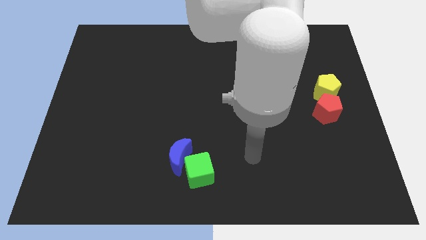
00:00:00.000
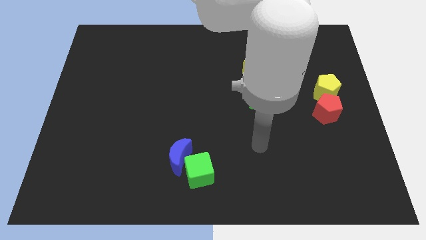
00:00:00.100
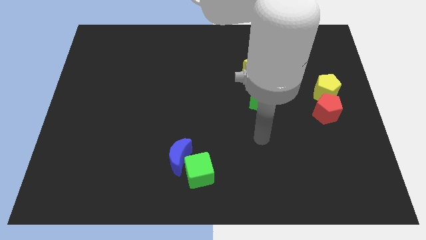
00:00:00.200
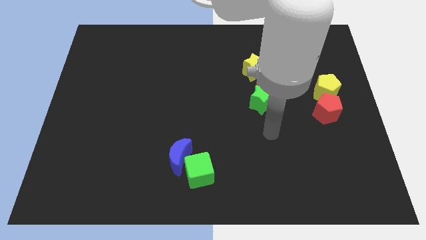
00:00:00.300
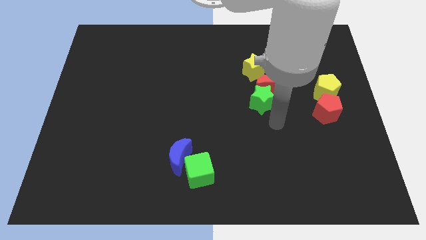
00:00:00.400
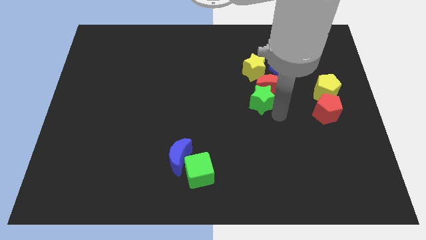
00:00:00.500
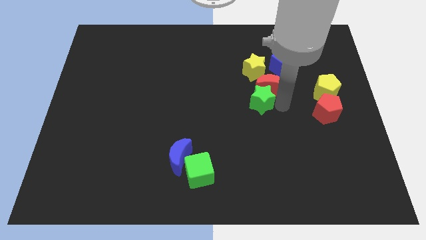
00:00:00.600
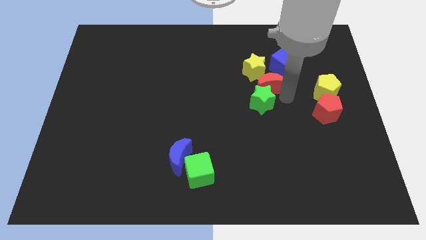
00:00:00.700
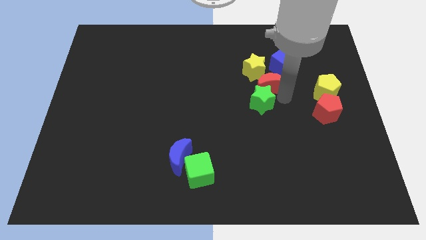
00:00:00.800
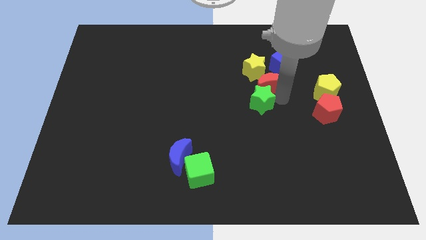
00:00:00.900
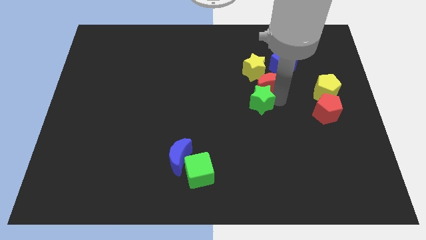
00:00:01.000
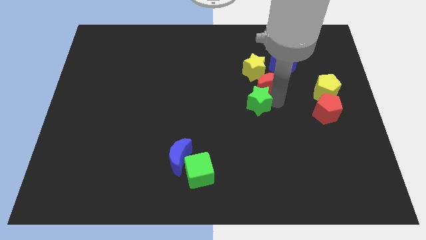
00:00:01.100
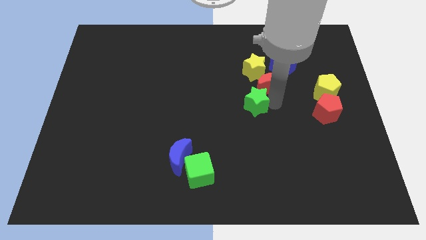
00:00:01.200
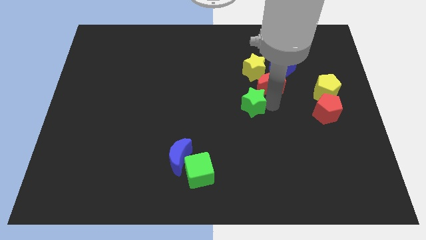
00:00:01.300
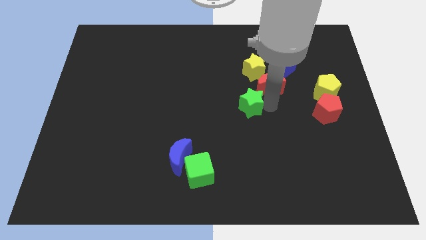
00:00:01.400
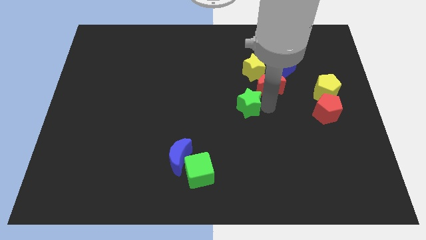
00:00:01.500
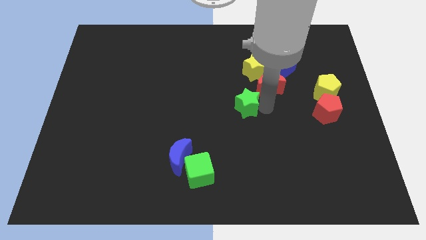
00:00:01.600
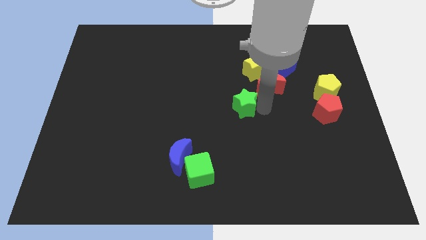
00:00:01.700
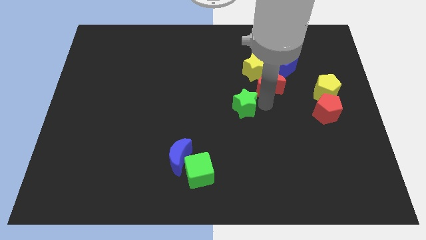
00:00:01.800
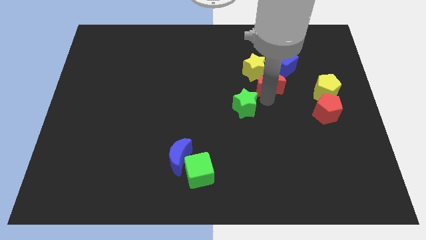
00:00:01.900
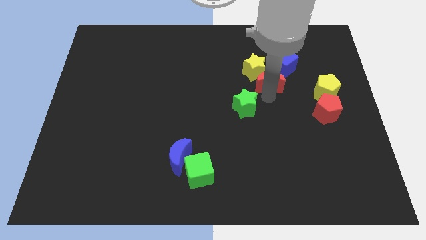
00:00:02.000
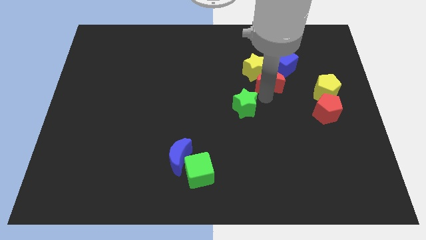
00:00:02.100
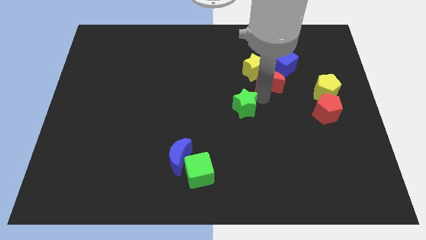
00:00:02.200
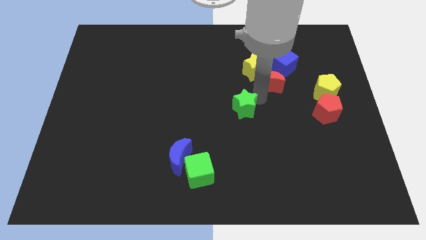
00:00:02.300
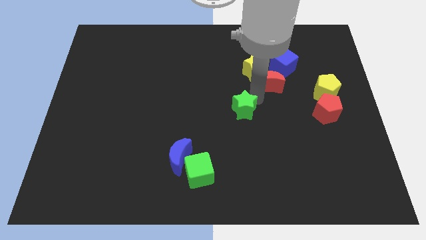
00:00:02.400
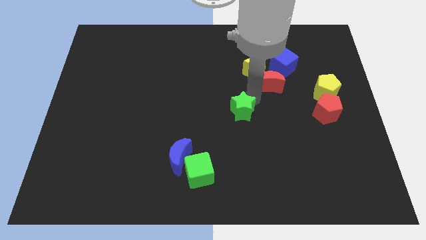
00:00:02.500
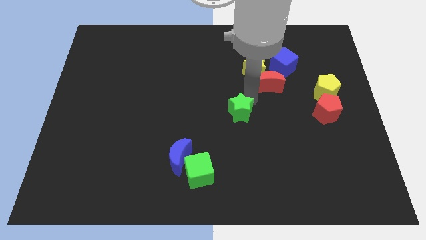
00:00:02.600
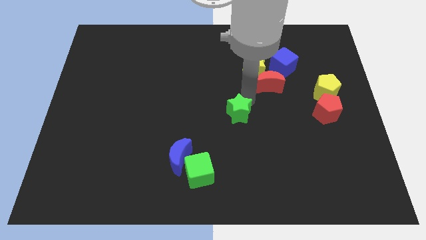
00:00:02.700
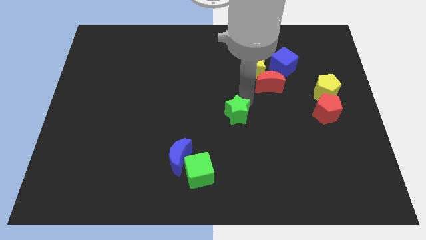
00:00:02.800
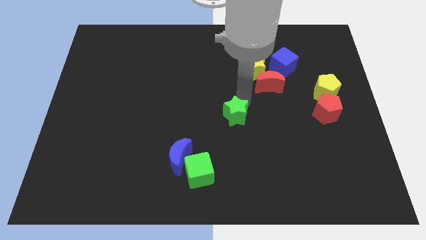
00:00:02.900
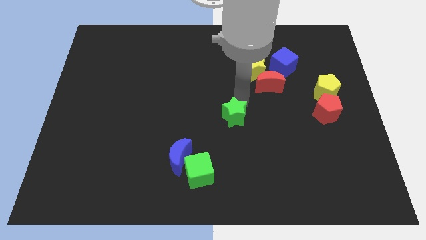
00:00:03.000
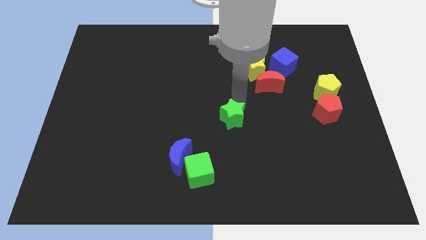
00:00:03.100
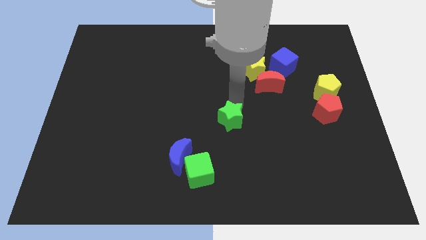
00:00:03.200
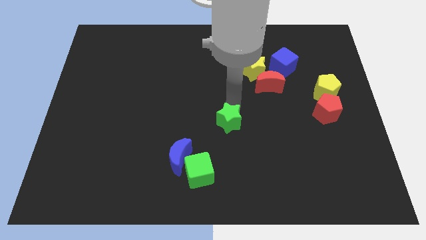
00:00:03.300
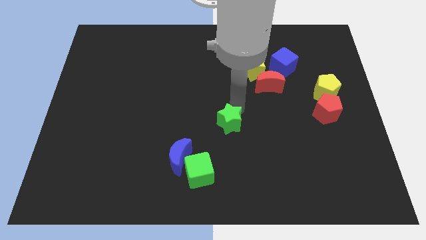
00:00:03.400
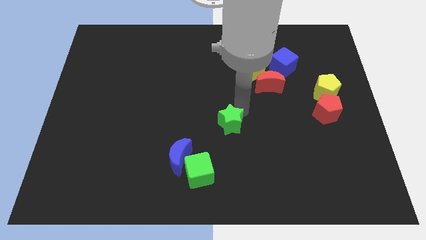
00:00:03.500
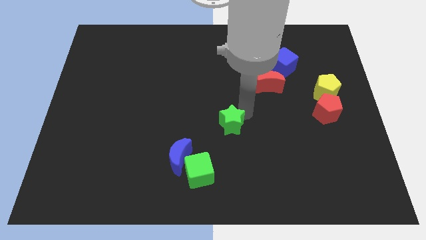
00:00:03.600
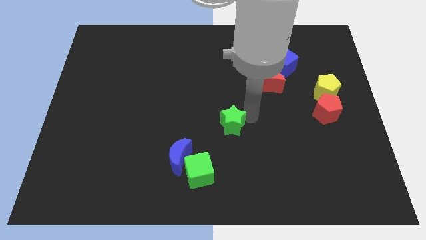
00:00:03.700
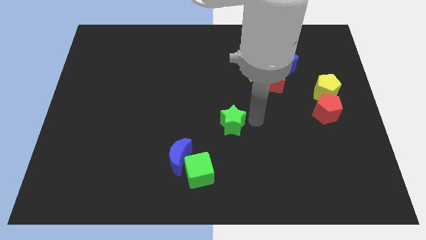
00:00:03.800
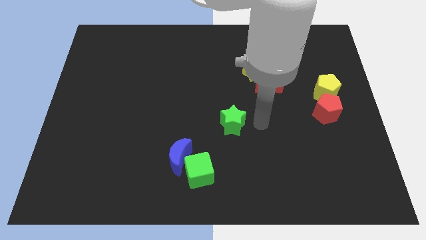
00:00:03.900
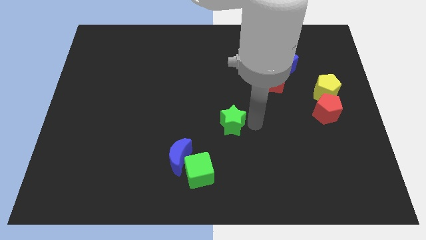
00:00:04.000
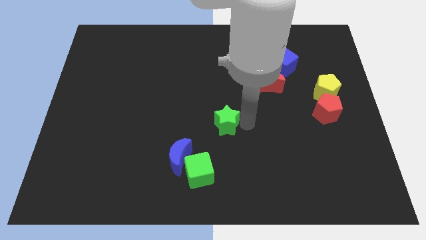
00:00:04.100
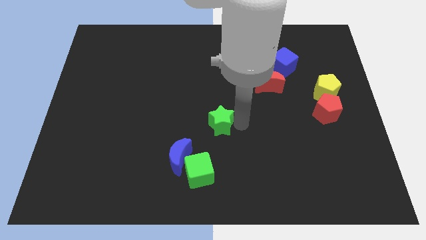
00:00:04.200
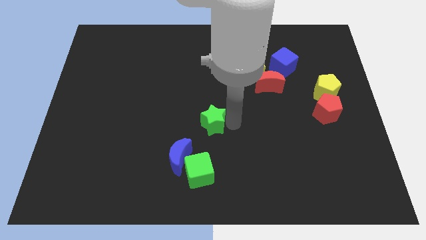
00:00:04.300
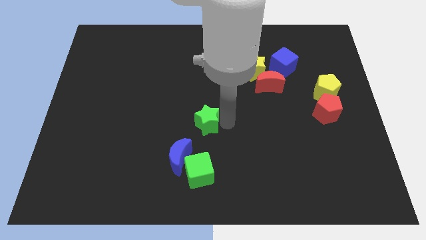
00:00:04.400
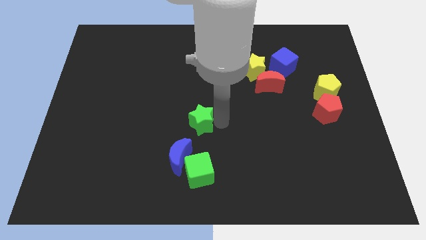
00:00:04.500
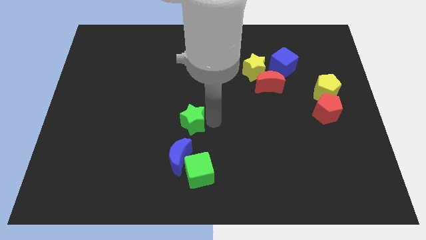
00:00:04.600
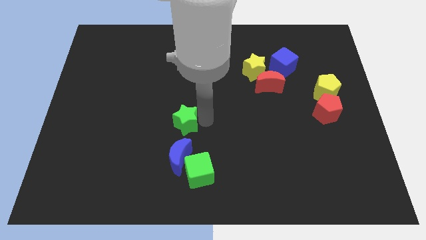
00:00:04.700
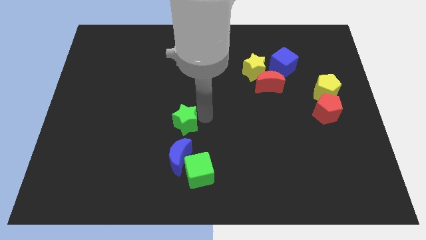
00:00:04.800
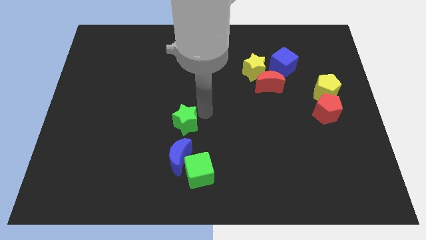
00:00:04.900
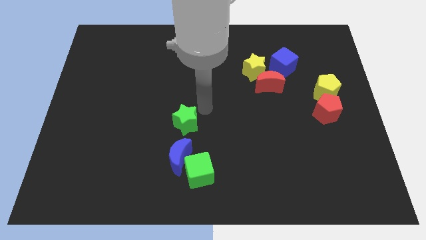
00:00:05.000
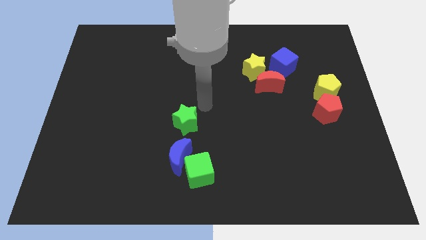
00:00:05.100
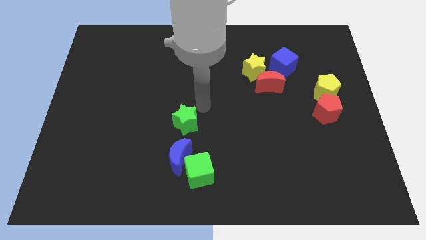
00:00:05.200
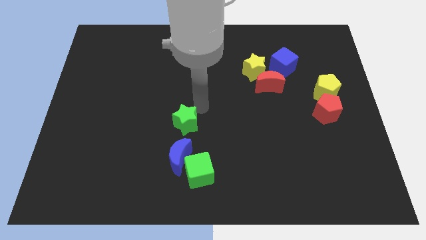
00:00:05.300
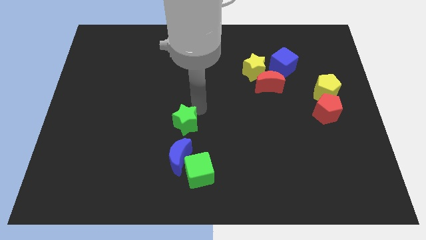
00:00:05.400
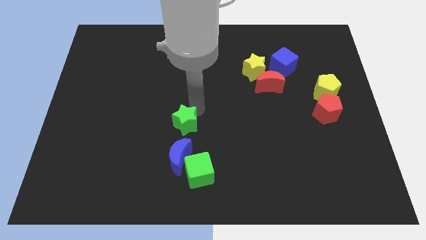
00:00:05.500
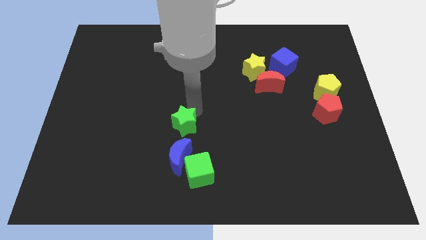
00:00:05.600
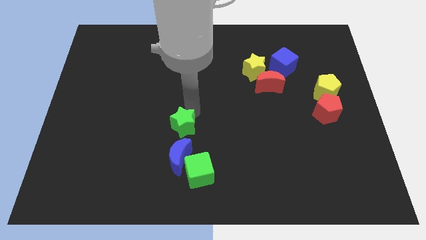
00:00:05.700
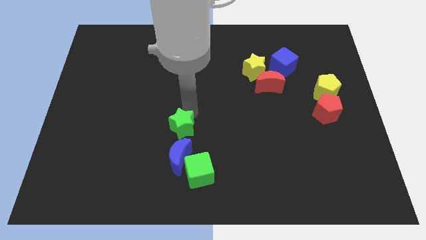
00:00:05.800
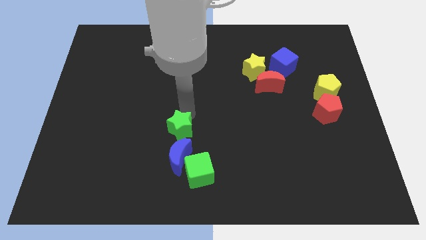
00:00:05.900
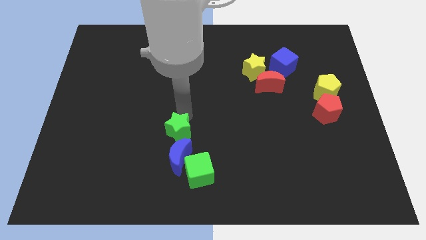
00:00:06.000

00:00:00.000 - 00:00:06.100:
slide the green star to the top left of the blue moon

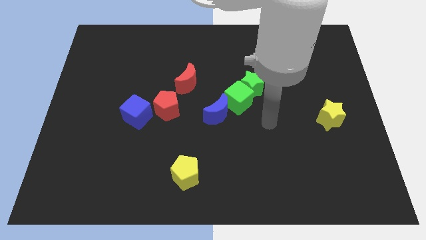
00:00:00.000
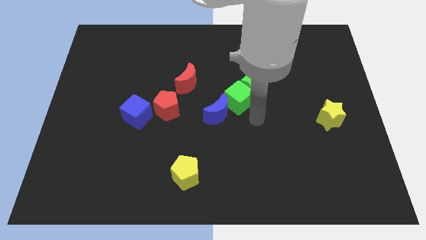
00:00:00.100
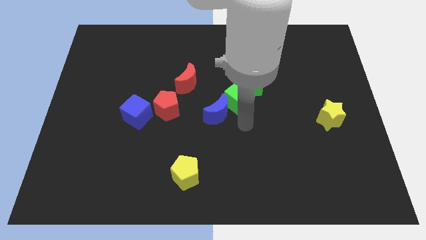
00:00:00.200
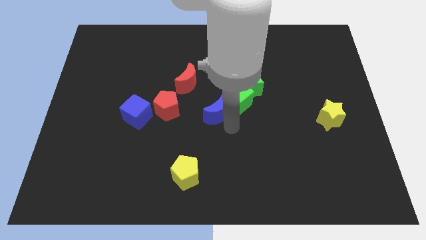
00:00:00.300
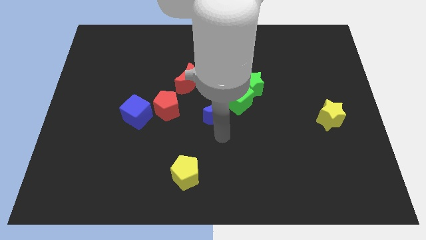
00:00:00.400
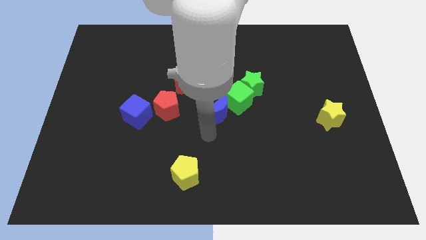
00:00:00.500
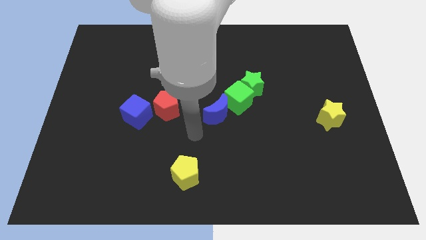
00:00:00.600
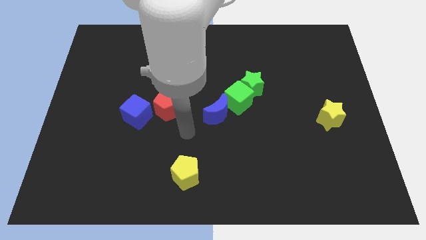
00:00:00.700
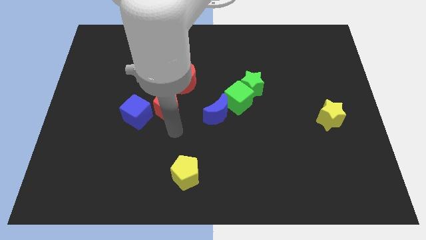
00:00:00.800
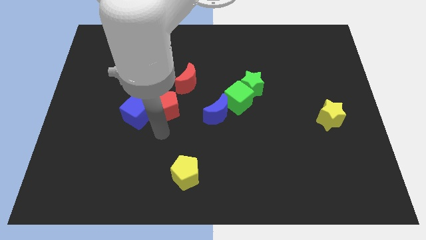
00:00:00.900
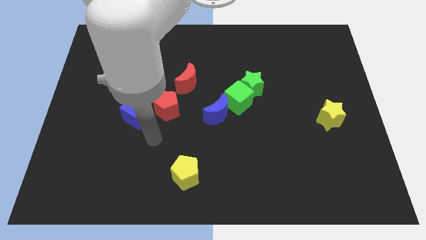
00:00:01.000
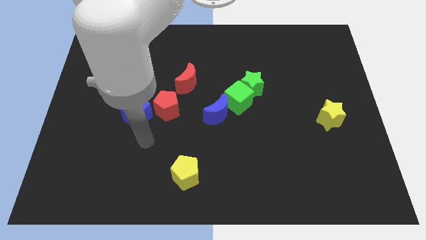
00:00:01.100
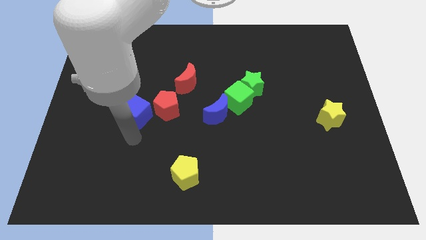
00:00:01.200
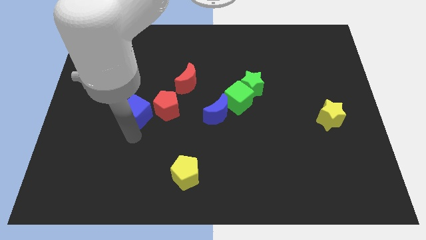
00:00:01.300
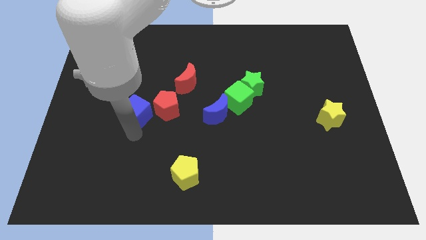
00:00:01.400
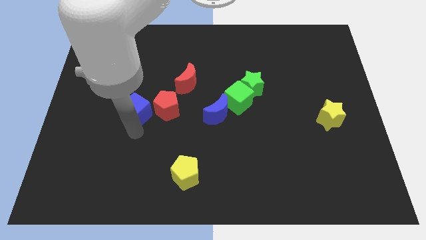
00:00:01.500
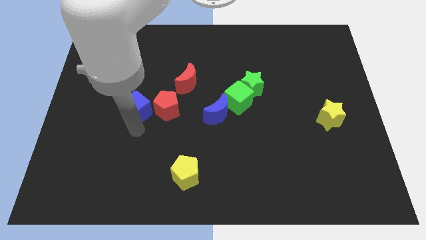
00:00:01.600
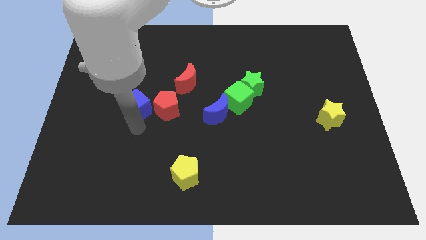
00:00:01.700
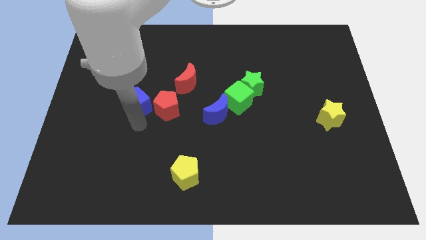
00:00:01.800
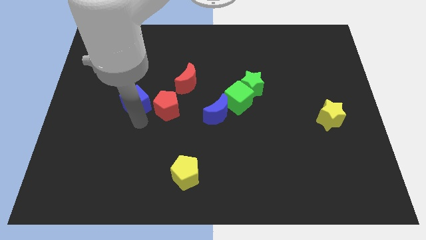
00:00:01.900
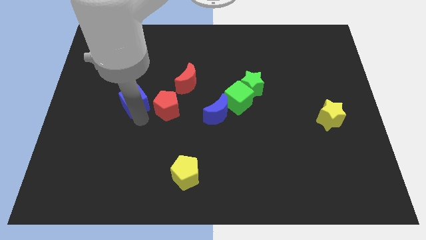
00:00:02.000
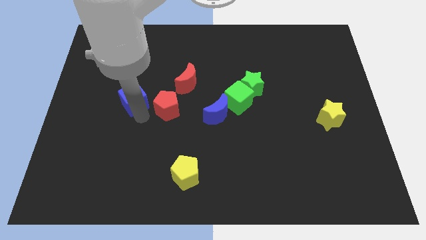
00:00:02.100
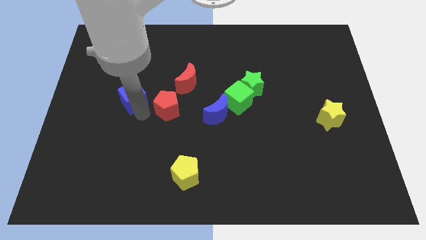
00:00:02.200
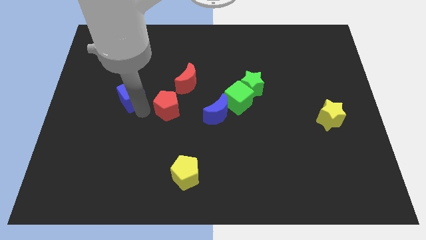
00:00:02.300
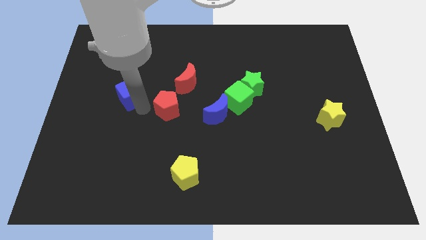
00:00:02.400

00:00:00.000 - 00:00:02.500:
put the blue cube to the left of the red moon
